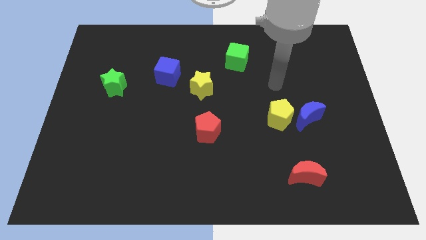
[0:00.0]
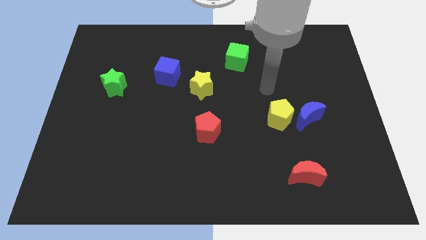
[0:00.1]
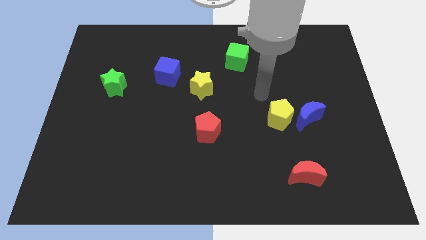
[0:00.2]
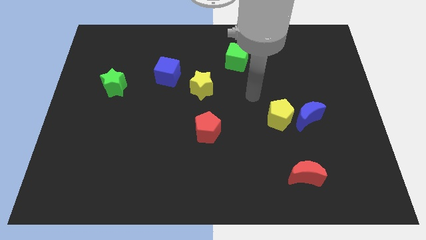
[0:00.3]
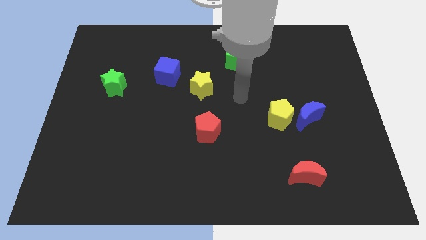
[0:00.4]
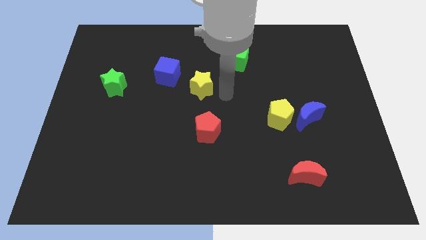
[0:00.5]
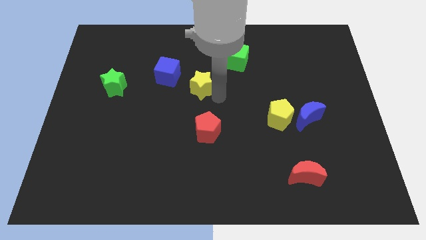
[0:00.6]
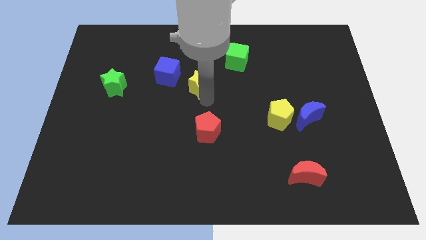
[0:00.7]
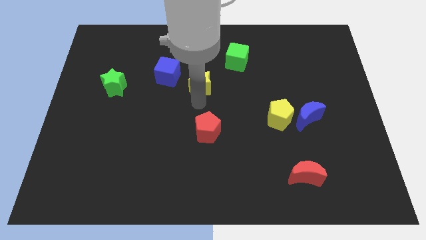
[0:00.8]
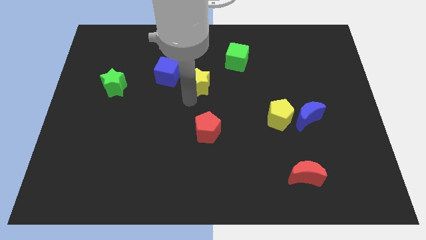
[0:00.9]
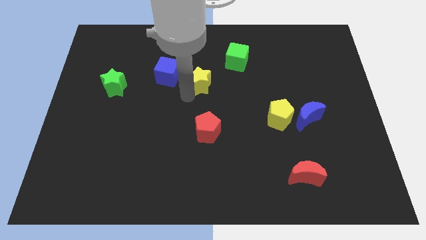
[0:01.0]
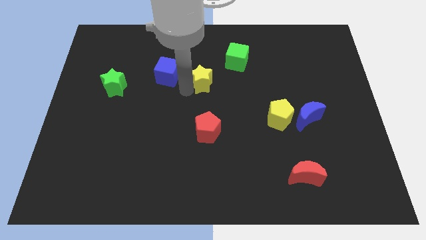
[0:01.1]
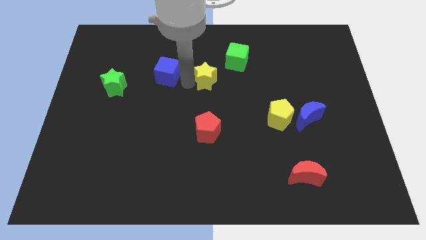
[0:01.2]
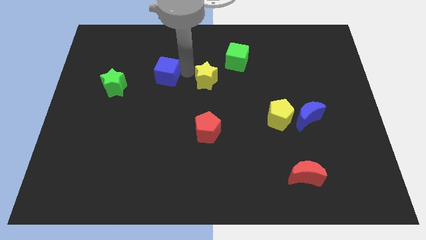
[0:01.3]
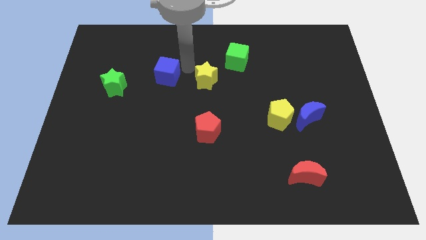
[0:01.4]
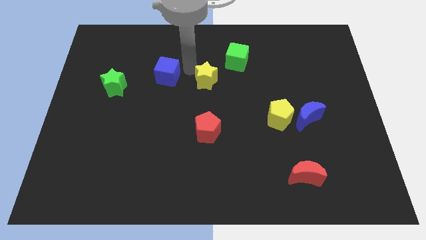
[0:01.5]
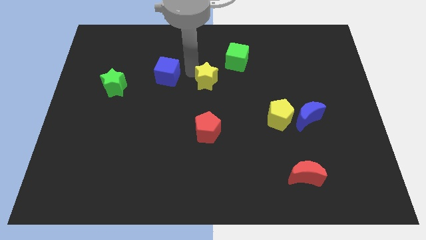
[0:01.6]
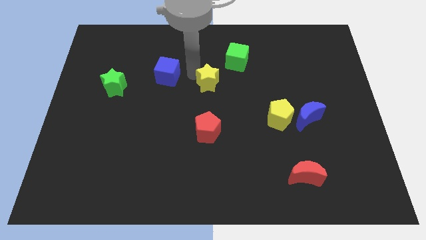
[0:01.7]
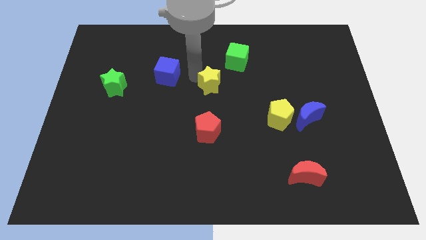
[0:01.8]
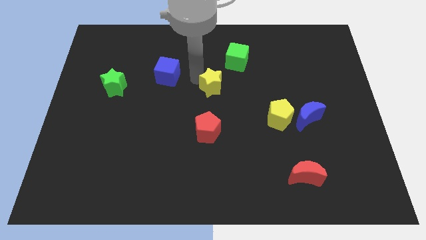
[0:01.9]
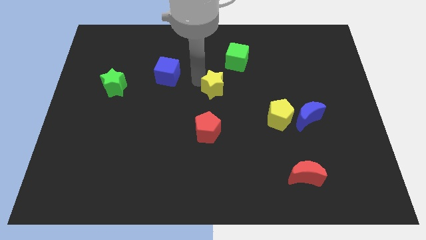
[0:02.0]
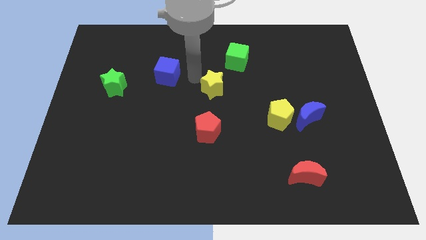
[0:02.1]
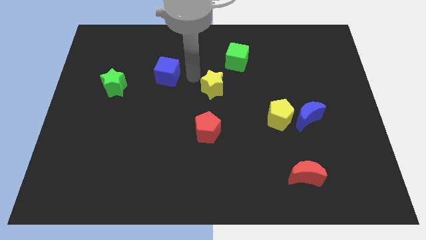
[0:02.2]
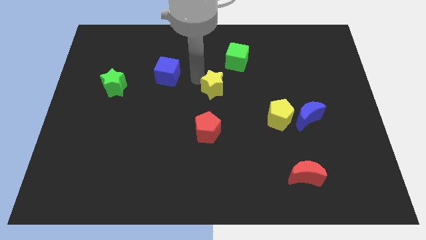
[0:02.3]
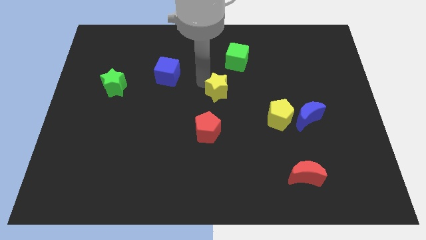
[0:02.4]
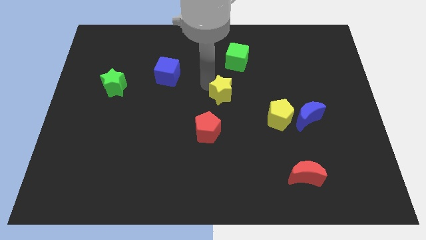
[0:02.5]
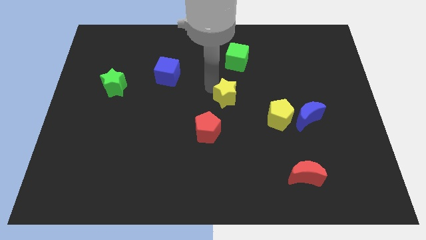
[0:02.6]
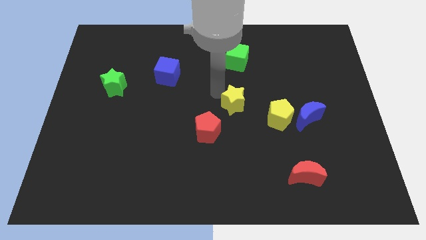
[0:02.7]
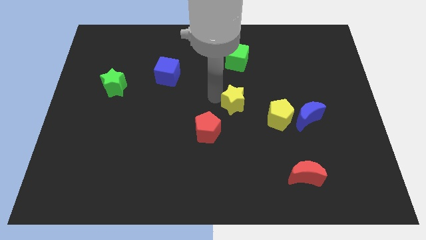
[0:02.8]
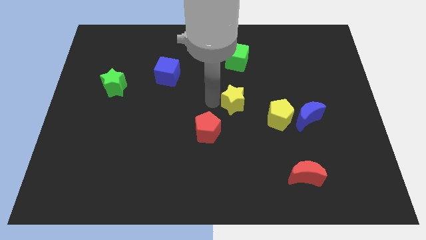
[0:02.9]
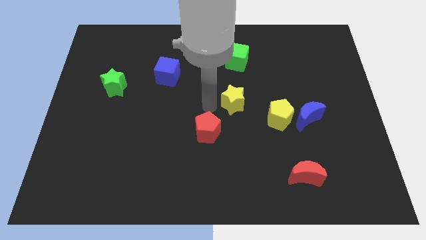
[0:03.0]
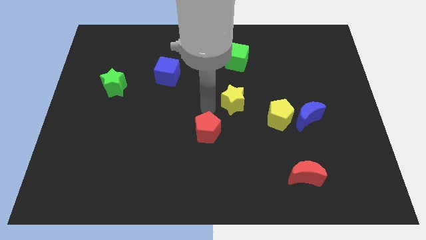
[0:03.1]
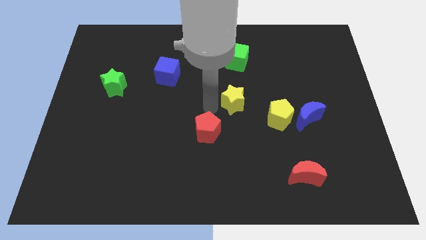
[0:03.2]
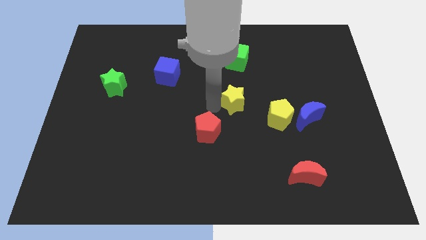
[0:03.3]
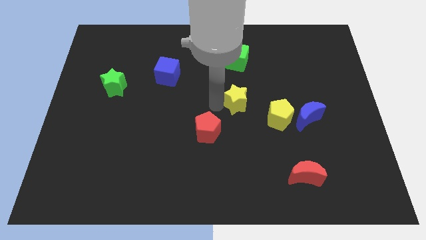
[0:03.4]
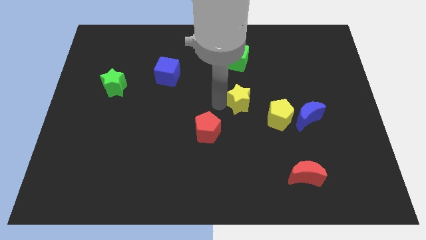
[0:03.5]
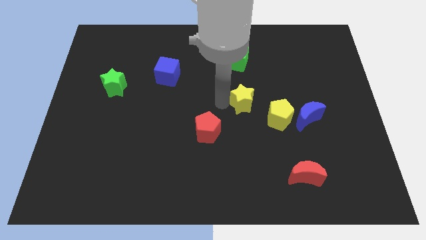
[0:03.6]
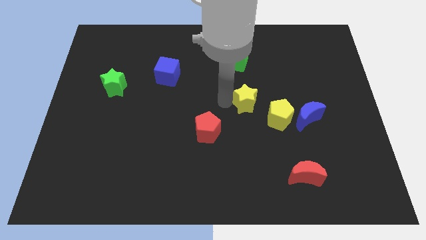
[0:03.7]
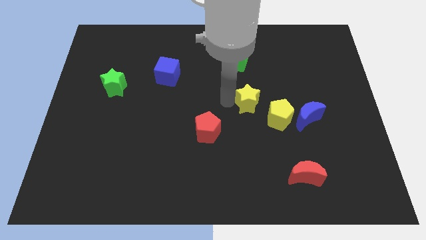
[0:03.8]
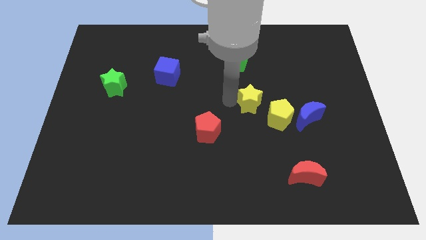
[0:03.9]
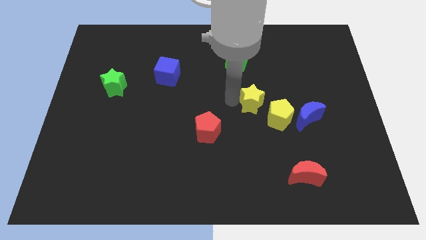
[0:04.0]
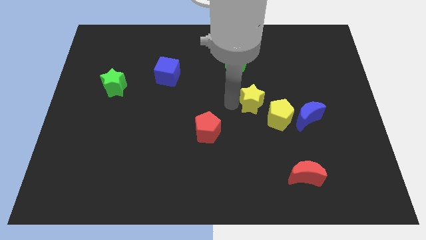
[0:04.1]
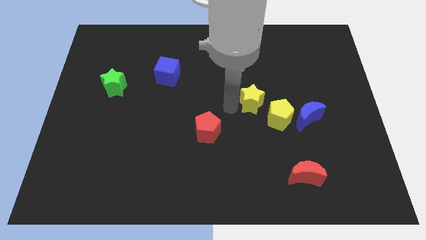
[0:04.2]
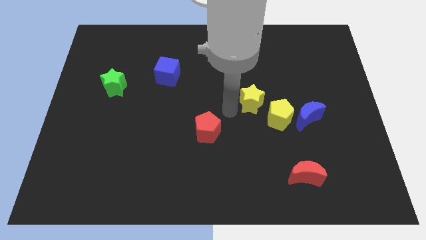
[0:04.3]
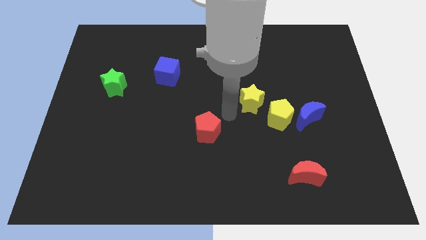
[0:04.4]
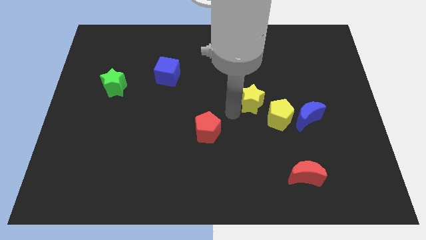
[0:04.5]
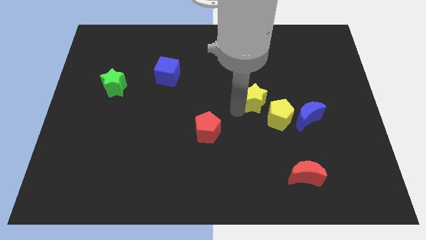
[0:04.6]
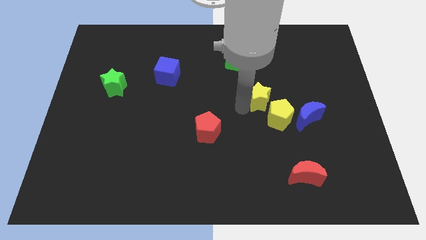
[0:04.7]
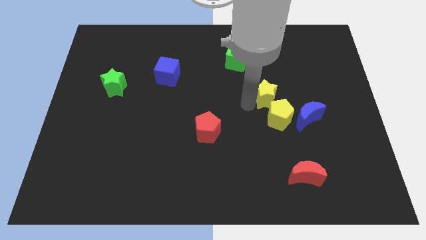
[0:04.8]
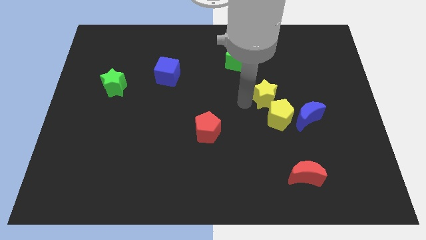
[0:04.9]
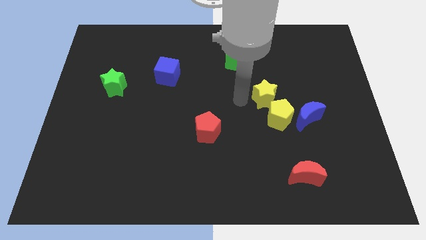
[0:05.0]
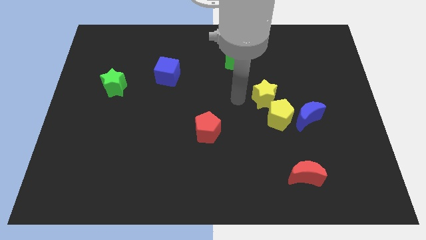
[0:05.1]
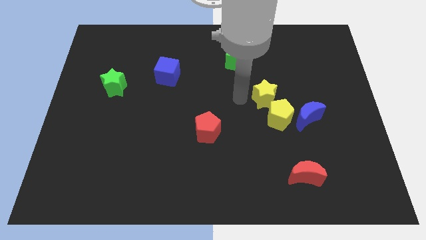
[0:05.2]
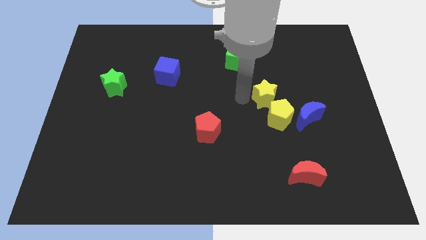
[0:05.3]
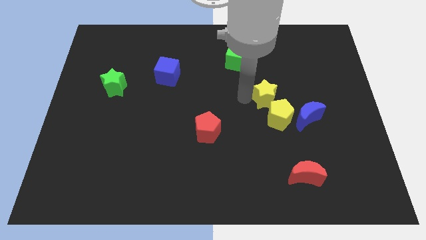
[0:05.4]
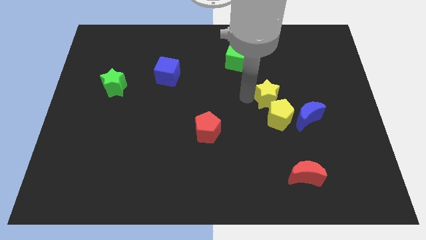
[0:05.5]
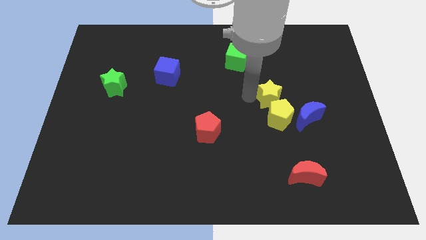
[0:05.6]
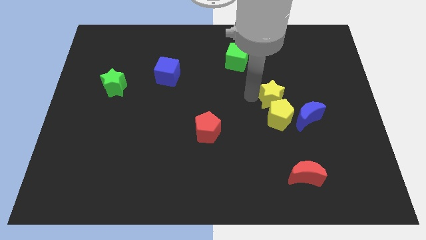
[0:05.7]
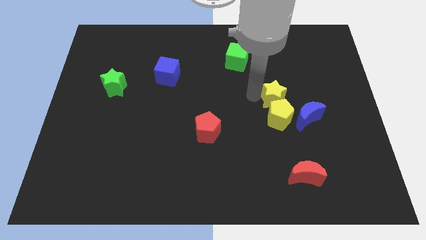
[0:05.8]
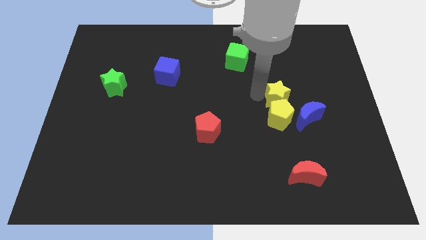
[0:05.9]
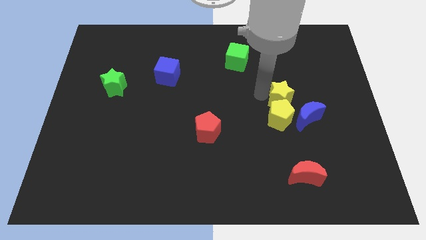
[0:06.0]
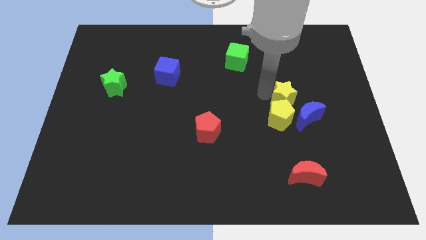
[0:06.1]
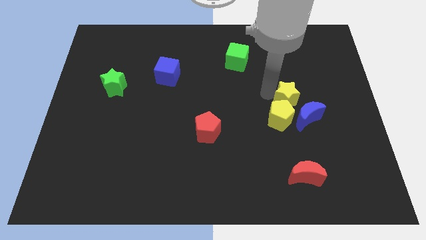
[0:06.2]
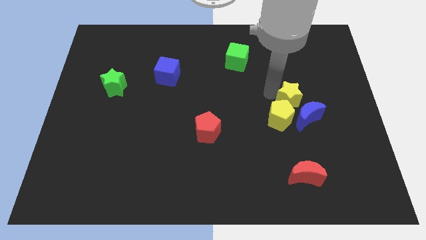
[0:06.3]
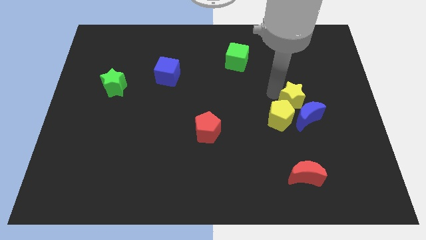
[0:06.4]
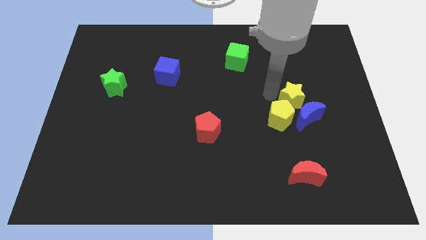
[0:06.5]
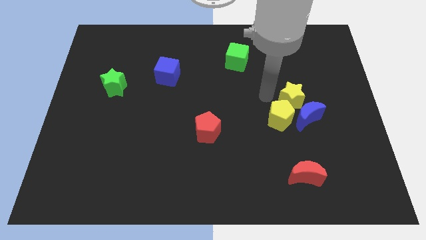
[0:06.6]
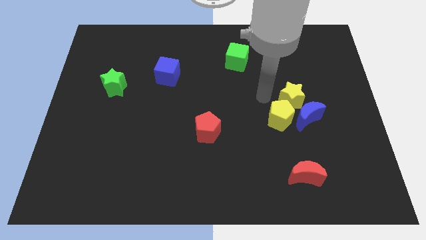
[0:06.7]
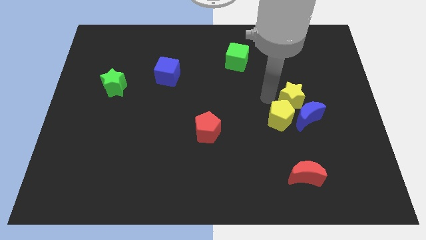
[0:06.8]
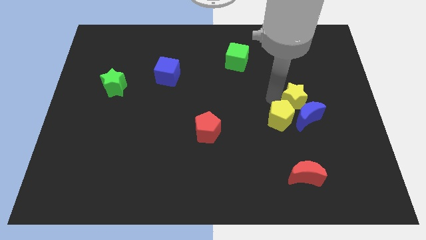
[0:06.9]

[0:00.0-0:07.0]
move the yellow star just right of the yellow pentagon

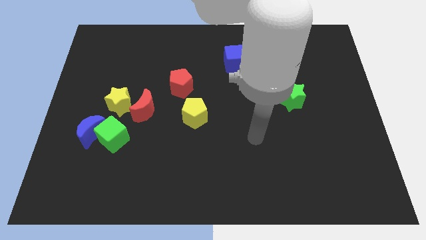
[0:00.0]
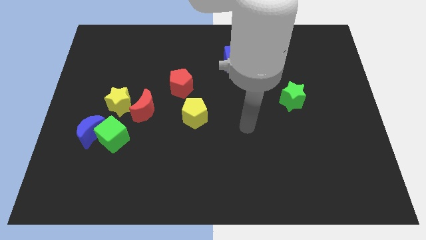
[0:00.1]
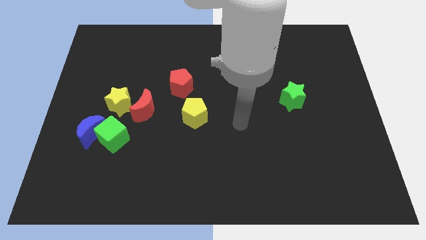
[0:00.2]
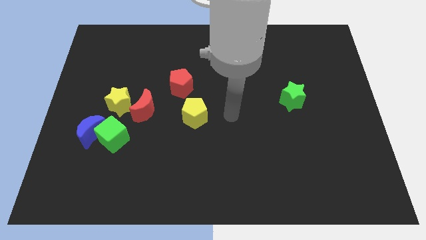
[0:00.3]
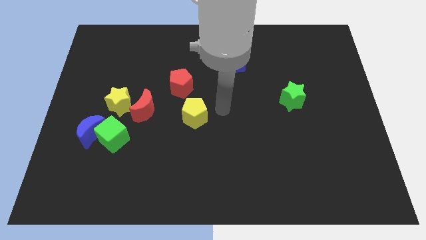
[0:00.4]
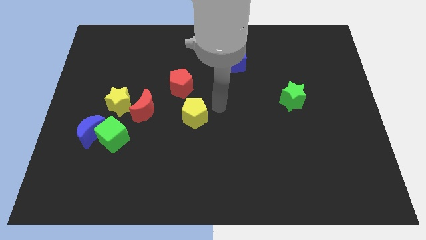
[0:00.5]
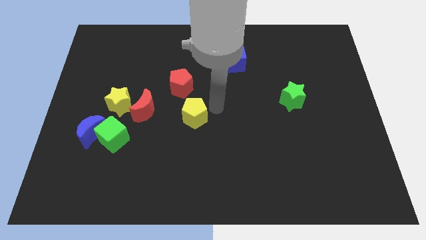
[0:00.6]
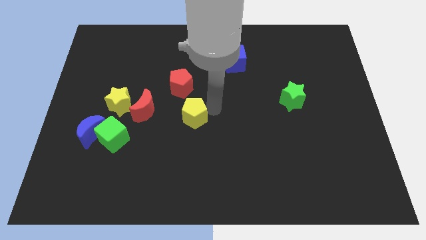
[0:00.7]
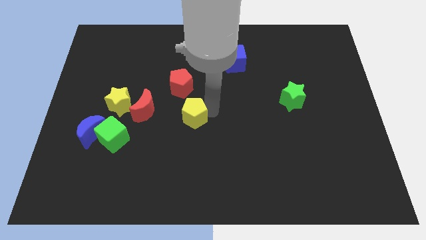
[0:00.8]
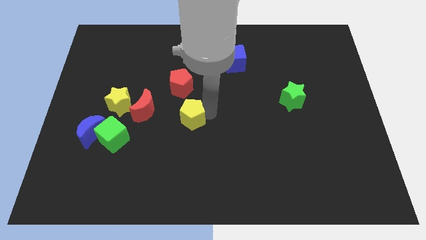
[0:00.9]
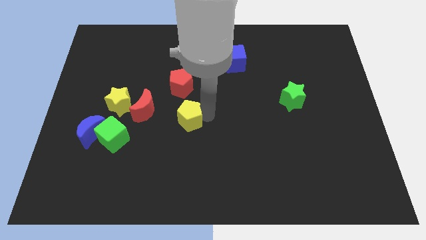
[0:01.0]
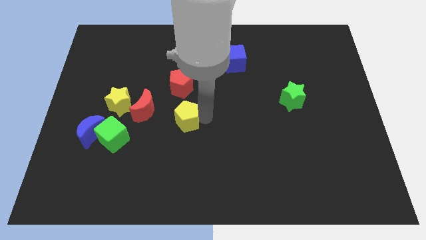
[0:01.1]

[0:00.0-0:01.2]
slide the yellow pentagon diagonally down and to the right of the red moon
